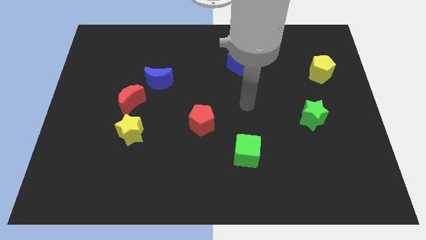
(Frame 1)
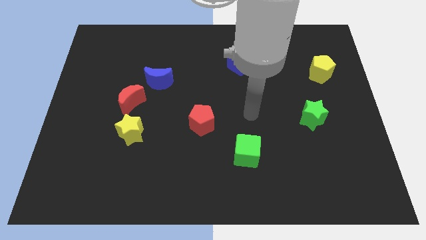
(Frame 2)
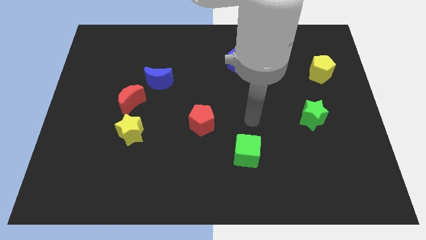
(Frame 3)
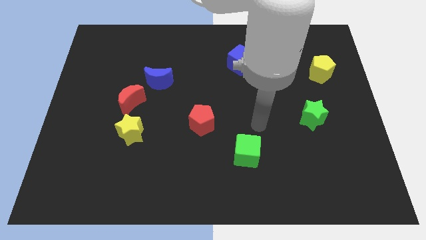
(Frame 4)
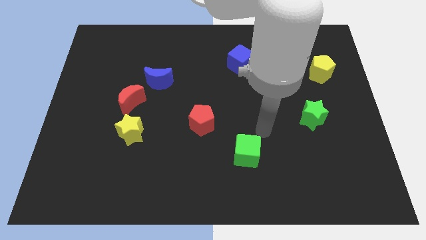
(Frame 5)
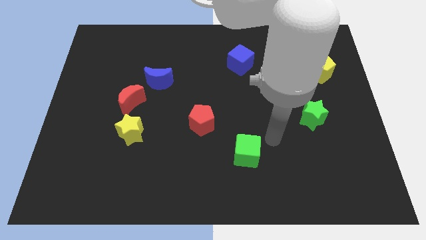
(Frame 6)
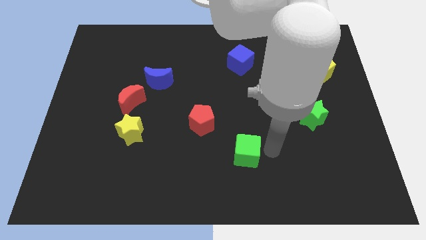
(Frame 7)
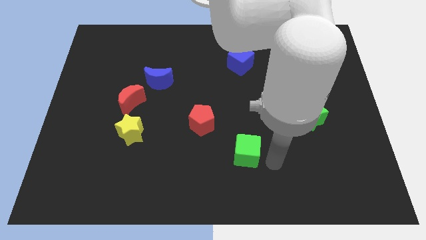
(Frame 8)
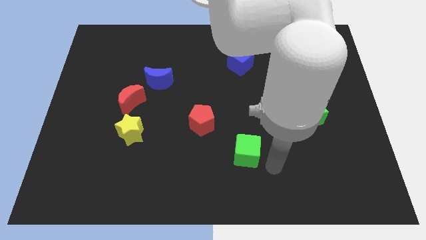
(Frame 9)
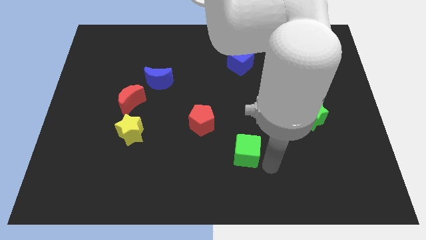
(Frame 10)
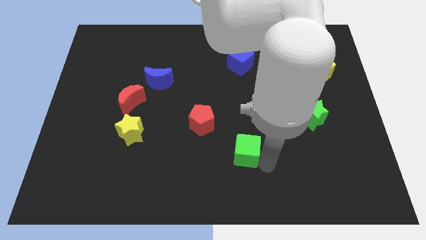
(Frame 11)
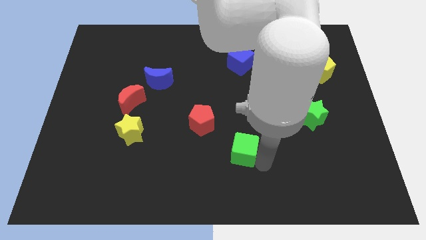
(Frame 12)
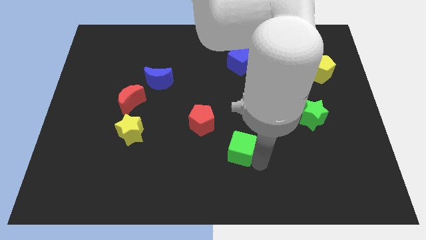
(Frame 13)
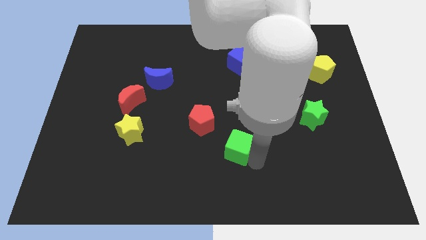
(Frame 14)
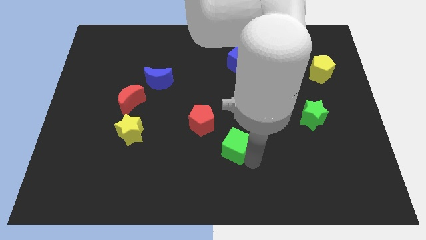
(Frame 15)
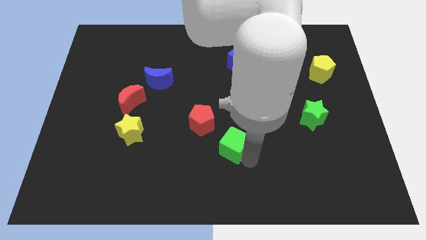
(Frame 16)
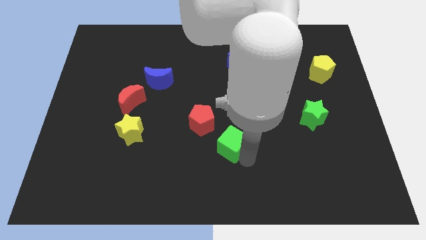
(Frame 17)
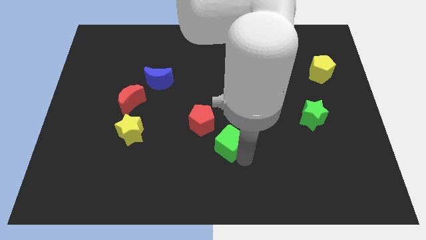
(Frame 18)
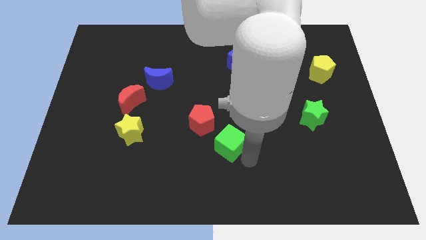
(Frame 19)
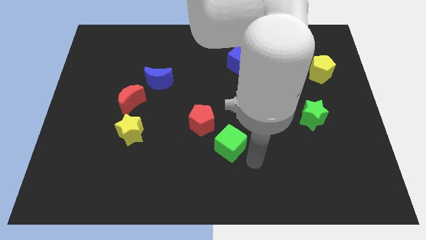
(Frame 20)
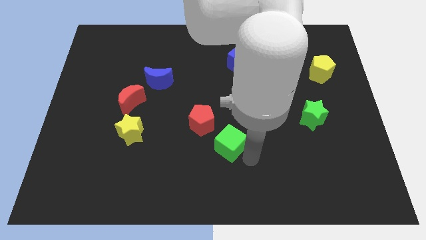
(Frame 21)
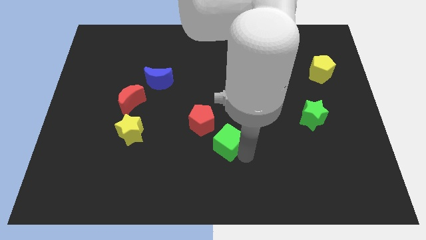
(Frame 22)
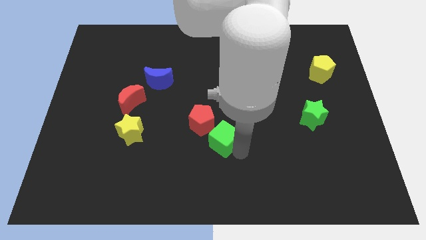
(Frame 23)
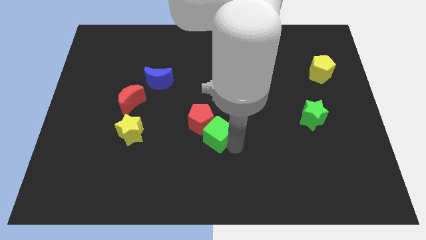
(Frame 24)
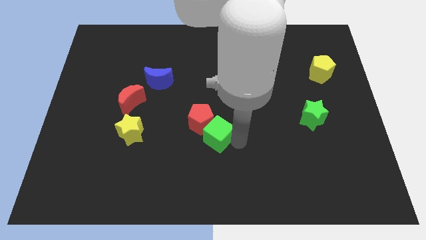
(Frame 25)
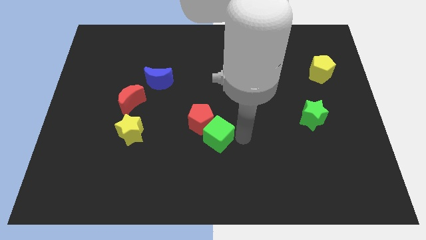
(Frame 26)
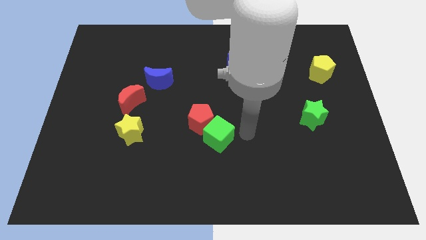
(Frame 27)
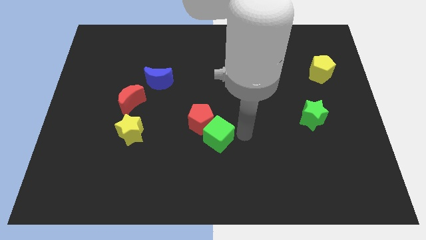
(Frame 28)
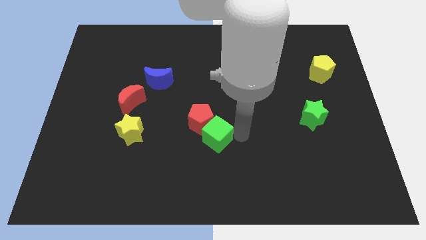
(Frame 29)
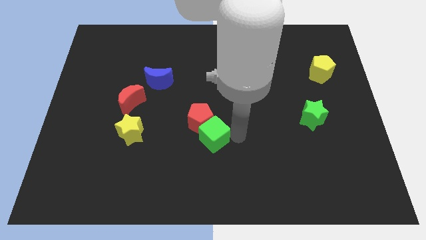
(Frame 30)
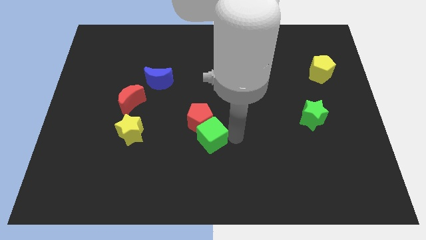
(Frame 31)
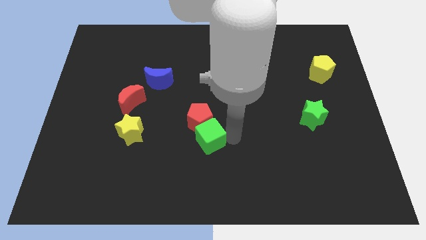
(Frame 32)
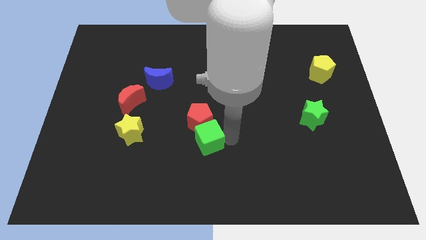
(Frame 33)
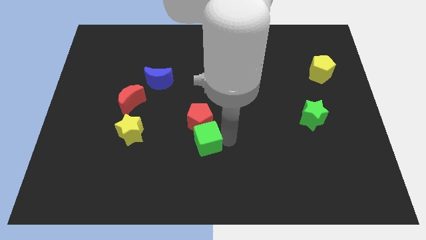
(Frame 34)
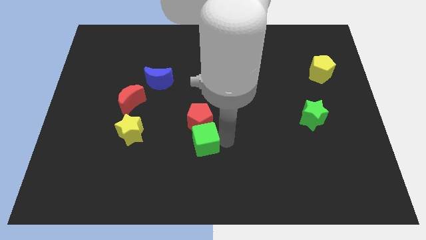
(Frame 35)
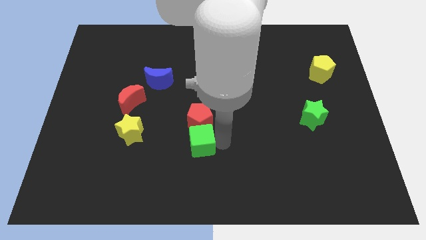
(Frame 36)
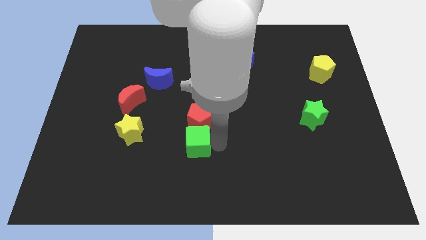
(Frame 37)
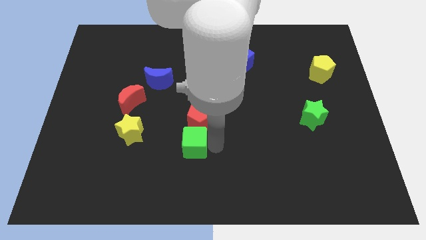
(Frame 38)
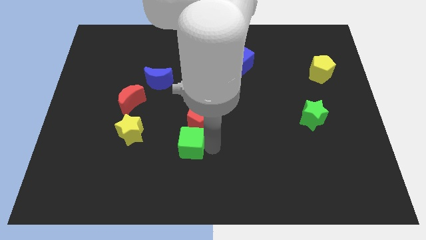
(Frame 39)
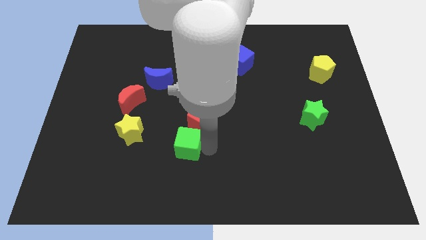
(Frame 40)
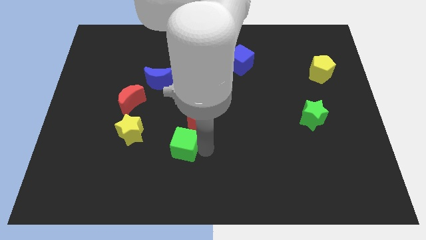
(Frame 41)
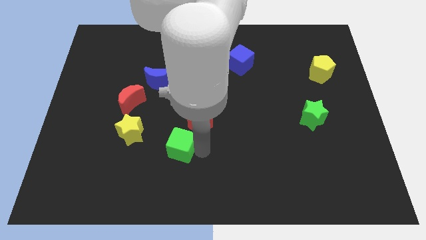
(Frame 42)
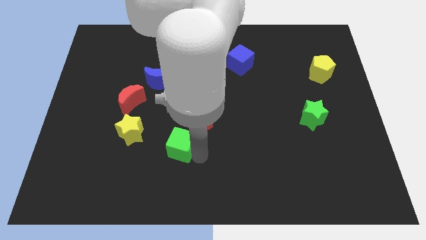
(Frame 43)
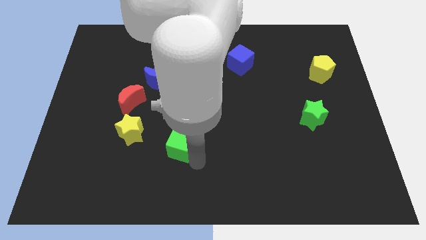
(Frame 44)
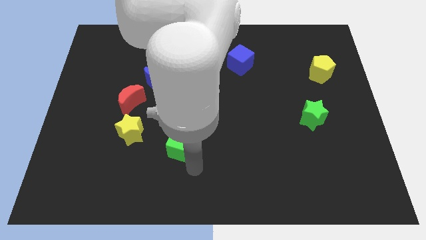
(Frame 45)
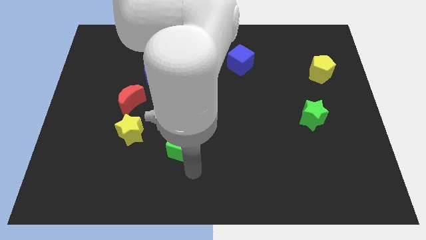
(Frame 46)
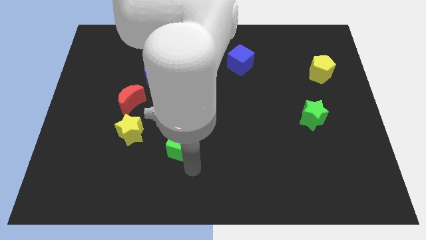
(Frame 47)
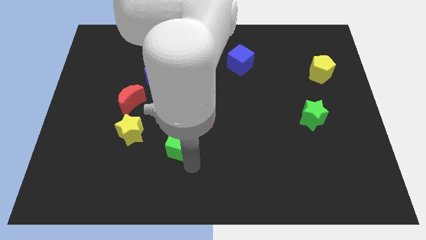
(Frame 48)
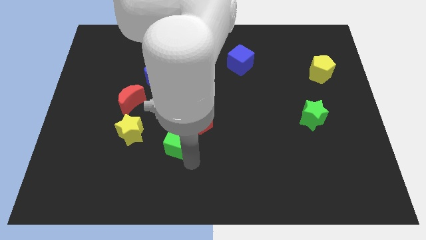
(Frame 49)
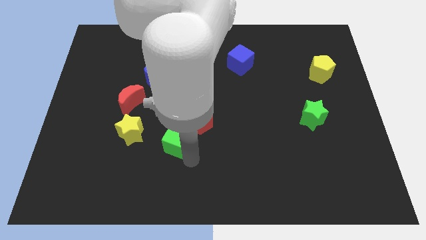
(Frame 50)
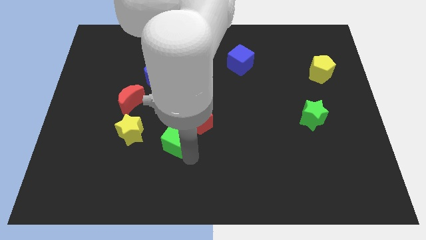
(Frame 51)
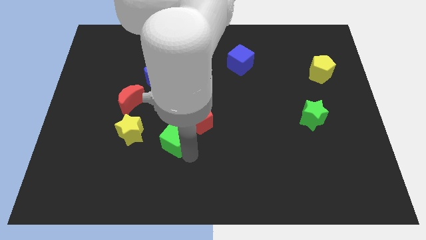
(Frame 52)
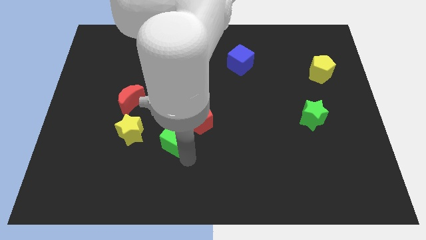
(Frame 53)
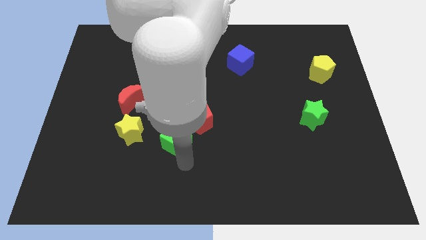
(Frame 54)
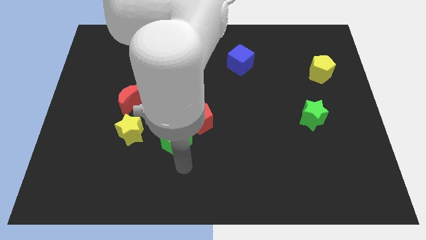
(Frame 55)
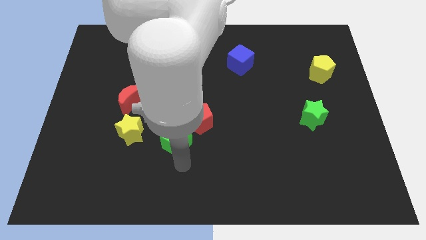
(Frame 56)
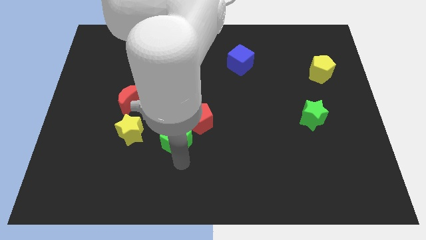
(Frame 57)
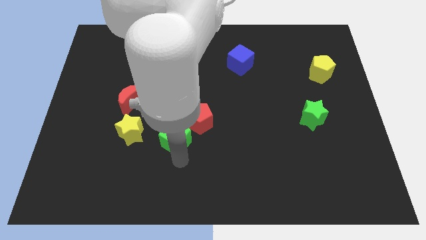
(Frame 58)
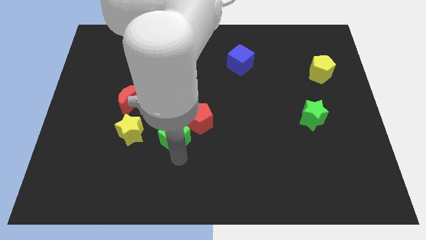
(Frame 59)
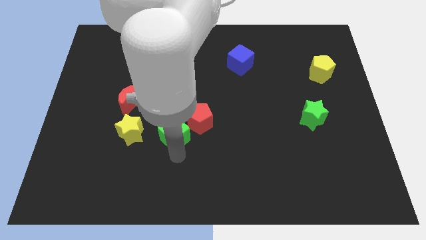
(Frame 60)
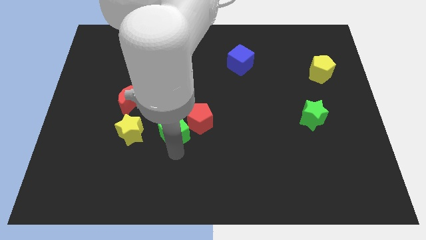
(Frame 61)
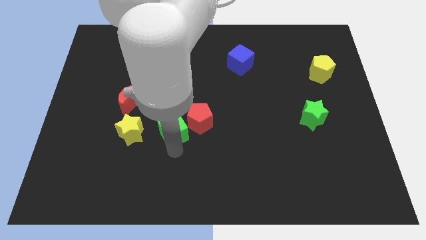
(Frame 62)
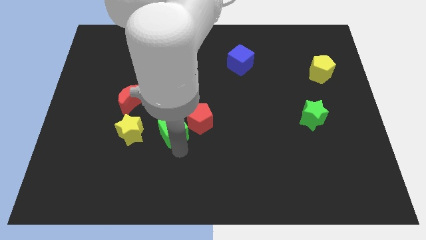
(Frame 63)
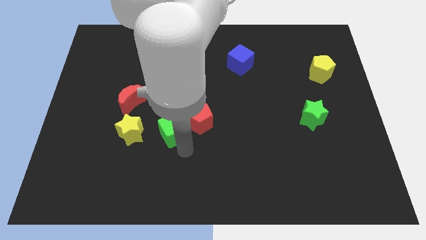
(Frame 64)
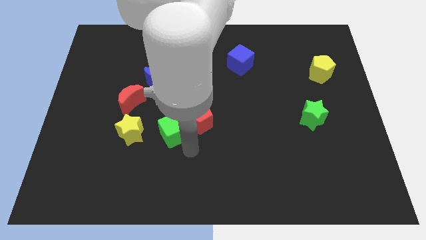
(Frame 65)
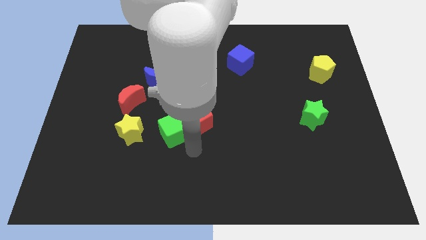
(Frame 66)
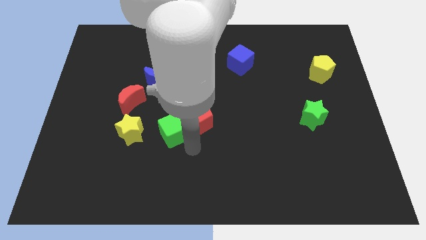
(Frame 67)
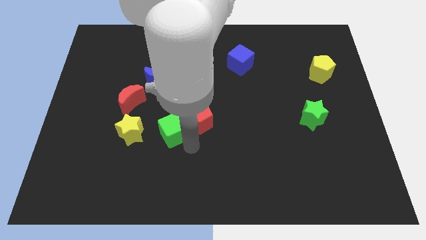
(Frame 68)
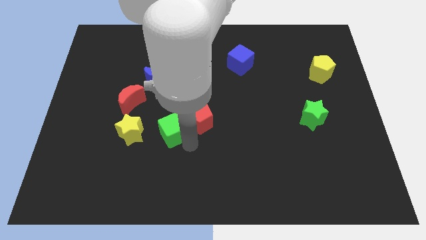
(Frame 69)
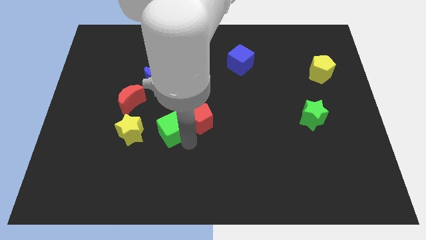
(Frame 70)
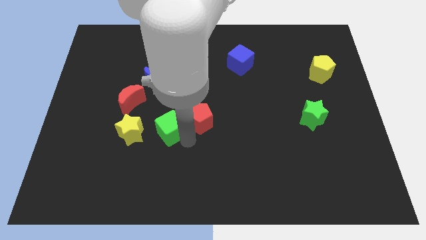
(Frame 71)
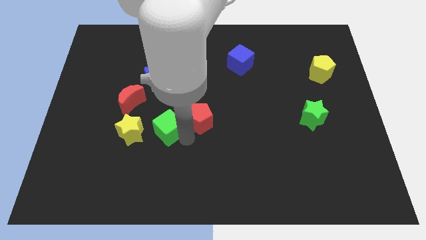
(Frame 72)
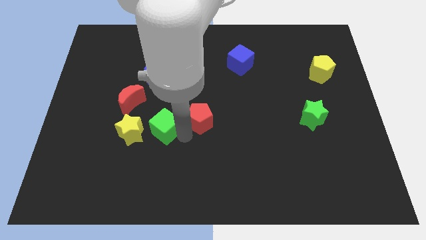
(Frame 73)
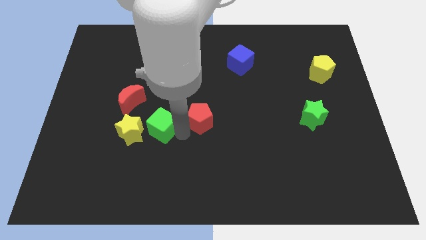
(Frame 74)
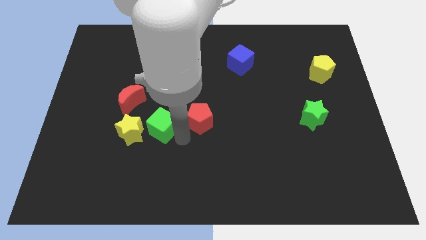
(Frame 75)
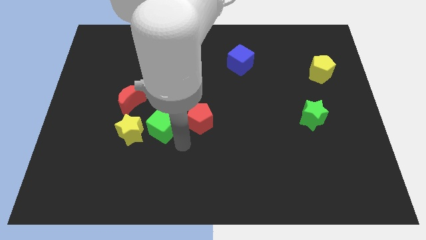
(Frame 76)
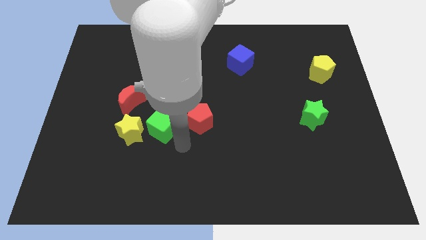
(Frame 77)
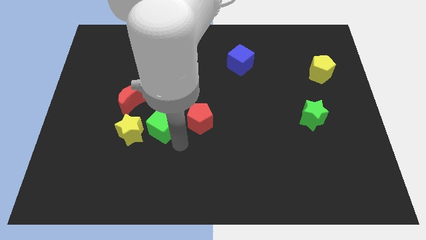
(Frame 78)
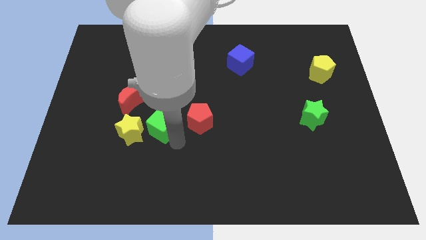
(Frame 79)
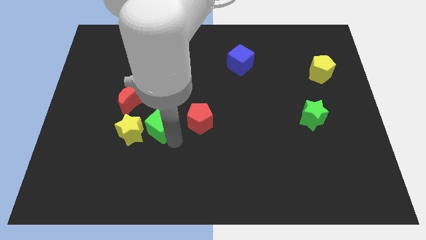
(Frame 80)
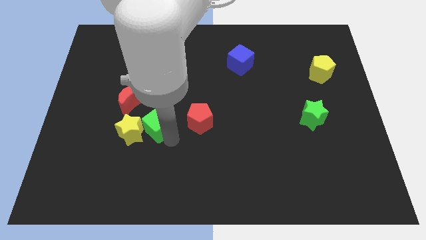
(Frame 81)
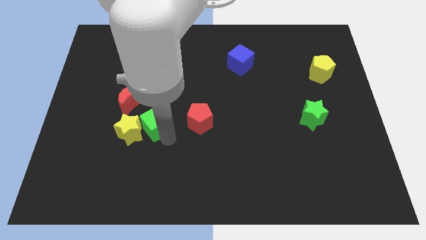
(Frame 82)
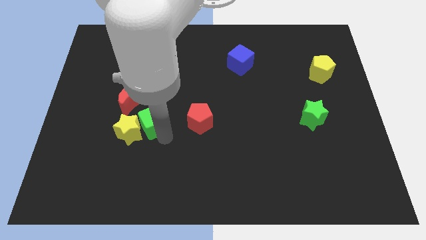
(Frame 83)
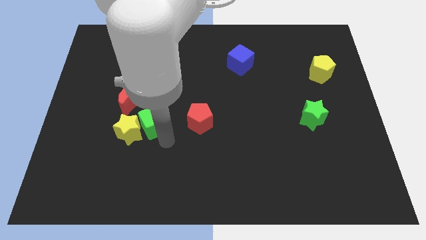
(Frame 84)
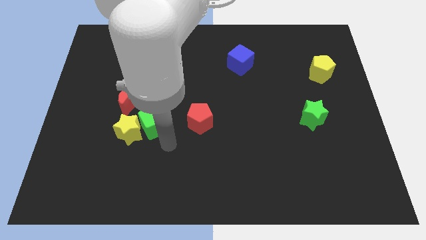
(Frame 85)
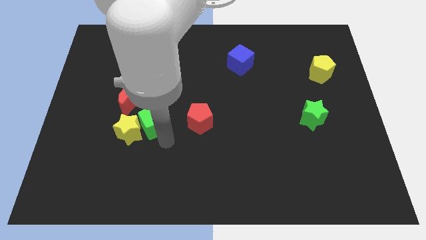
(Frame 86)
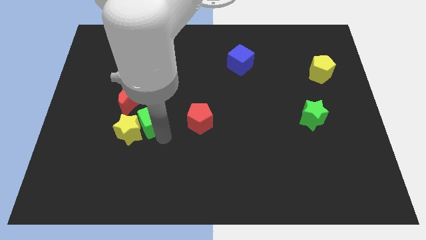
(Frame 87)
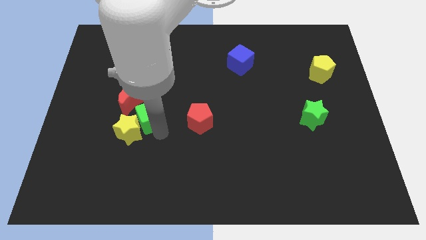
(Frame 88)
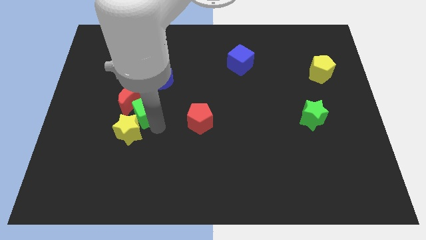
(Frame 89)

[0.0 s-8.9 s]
put the green cube close to the red moon
